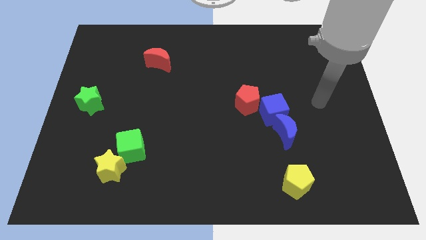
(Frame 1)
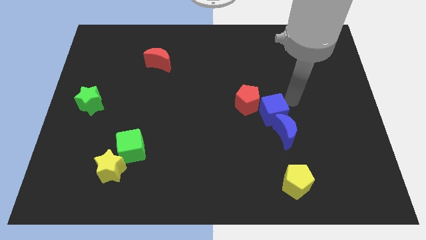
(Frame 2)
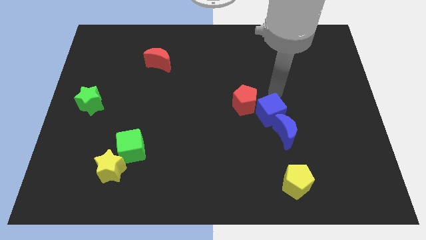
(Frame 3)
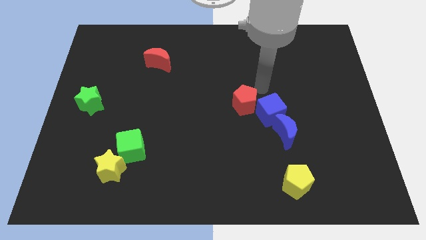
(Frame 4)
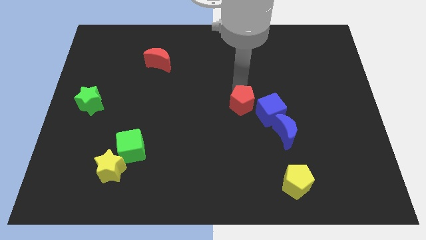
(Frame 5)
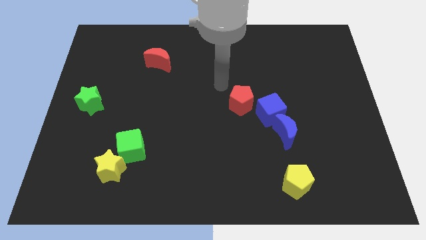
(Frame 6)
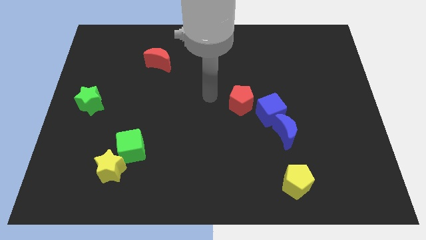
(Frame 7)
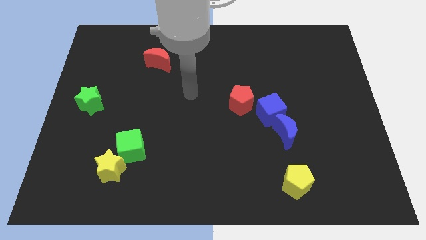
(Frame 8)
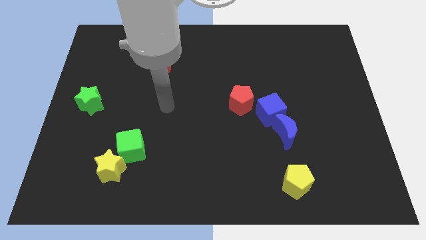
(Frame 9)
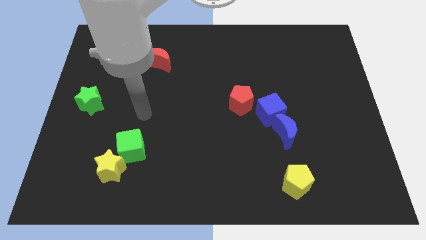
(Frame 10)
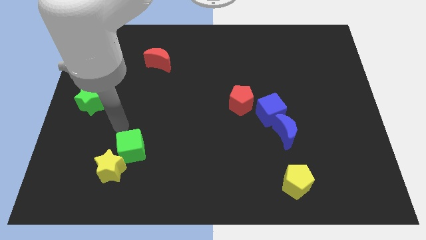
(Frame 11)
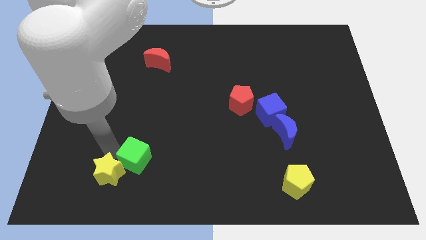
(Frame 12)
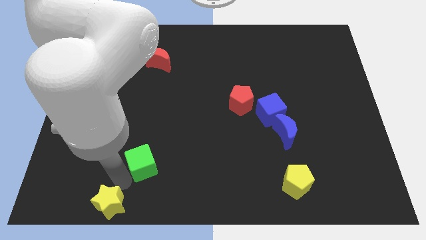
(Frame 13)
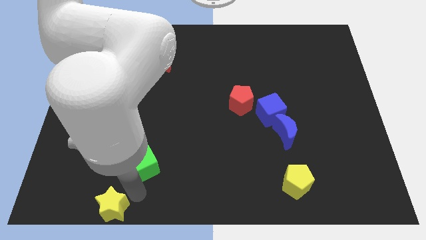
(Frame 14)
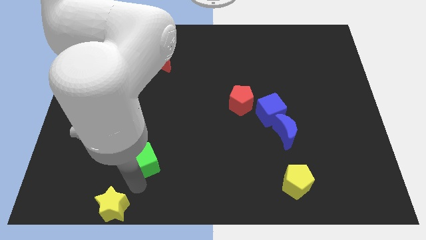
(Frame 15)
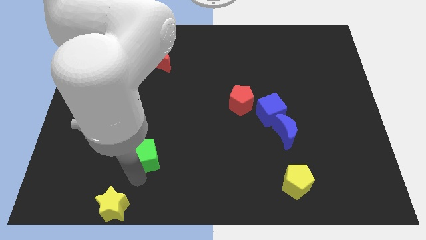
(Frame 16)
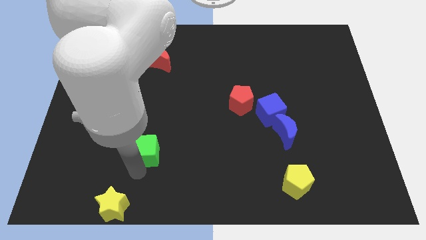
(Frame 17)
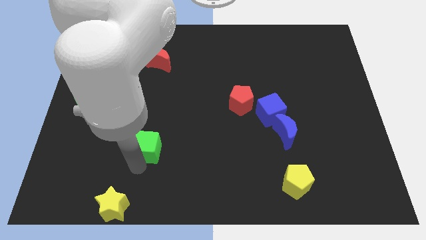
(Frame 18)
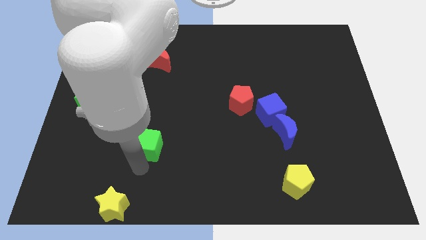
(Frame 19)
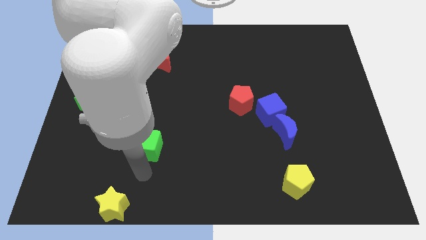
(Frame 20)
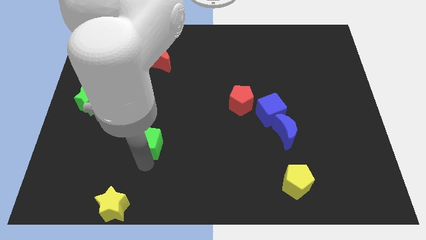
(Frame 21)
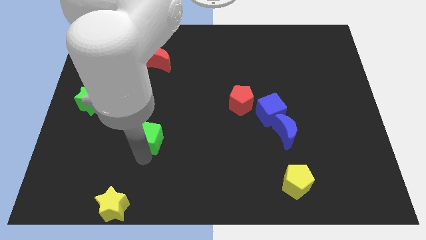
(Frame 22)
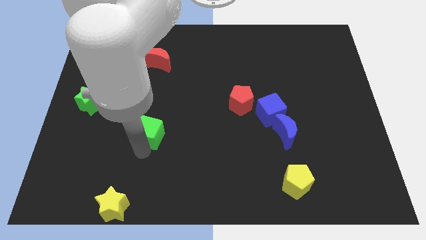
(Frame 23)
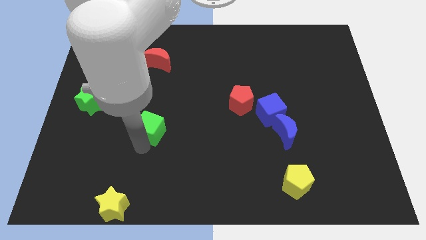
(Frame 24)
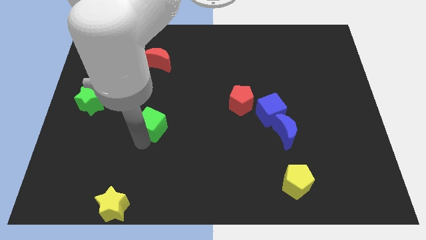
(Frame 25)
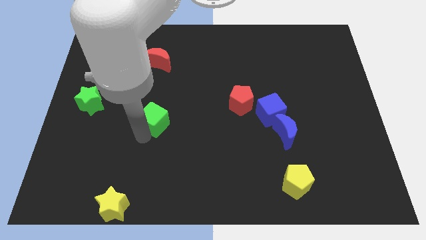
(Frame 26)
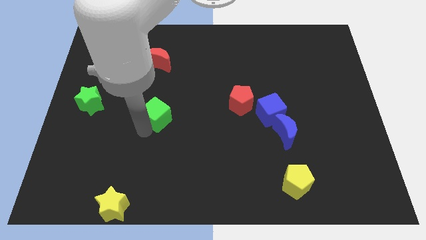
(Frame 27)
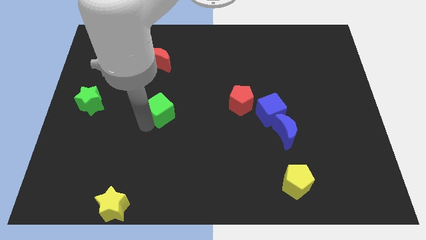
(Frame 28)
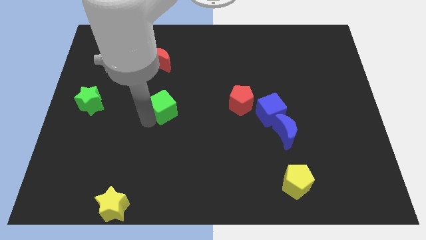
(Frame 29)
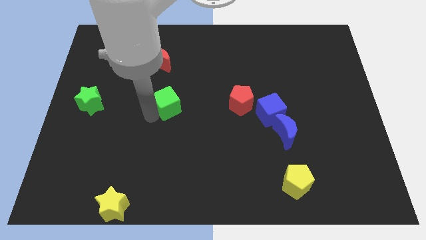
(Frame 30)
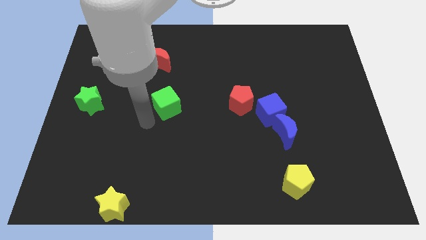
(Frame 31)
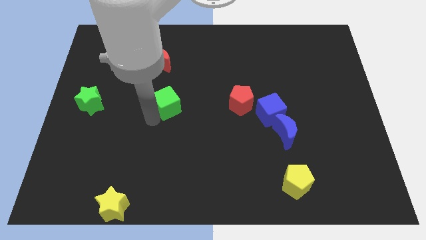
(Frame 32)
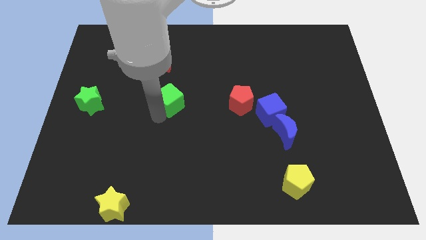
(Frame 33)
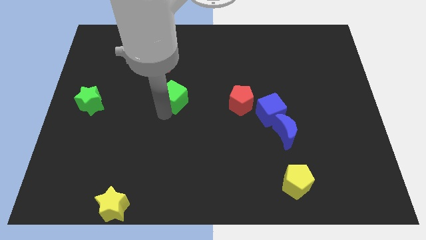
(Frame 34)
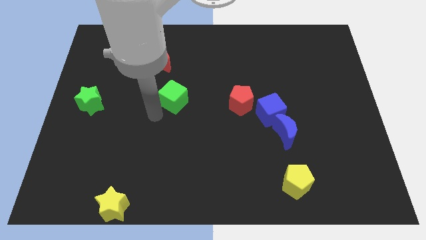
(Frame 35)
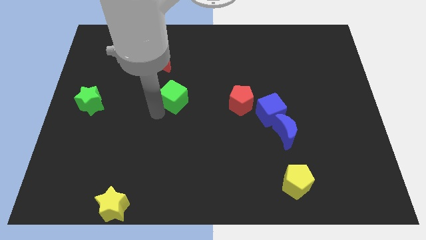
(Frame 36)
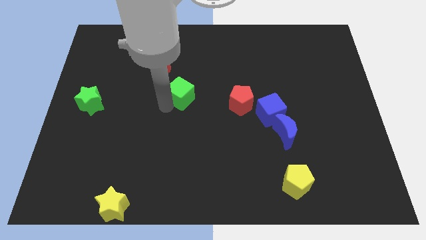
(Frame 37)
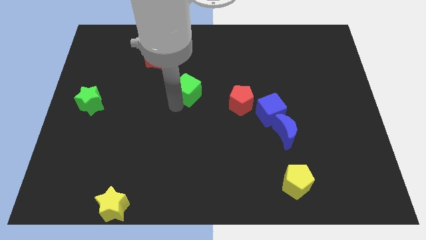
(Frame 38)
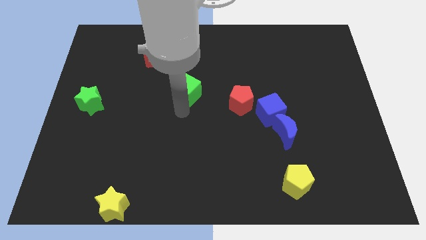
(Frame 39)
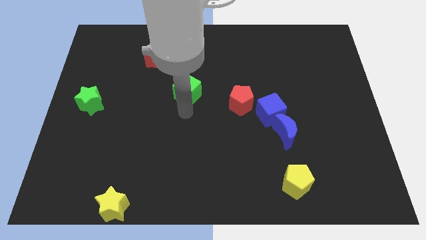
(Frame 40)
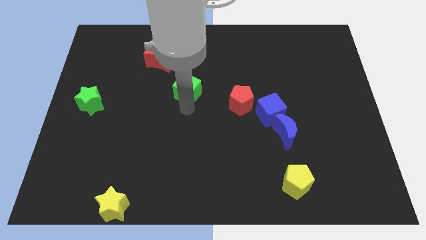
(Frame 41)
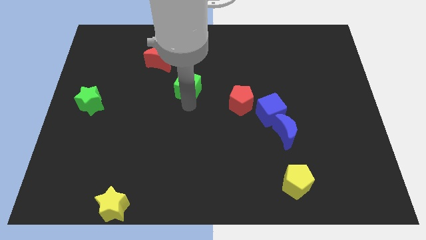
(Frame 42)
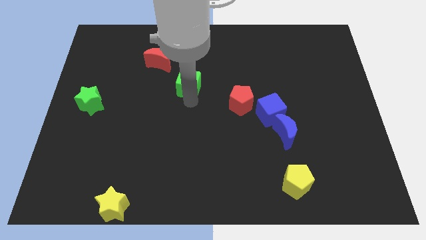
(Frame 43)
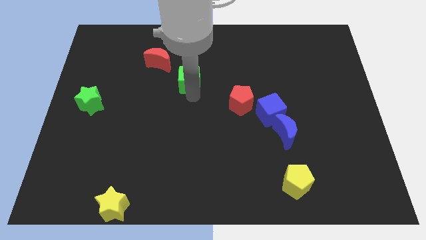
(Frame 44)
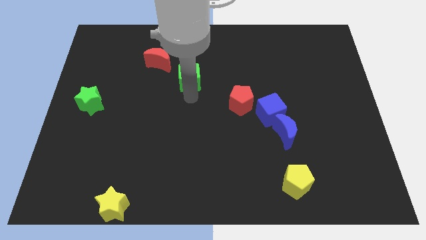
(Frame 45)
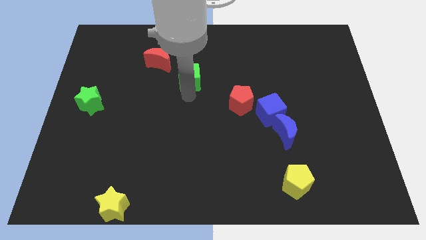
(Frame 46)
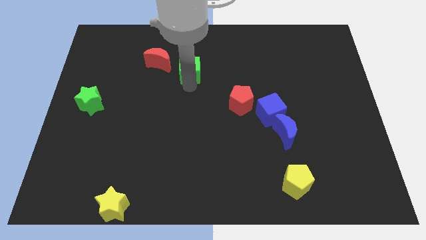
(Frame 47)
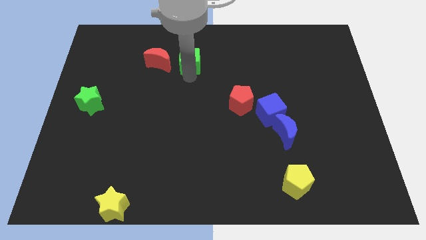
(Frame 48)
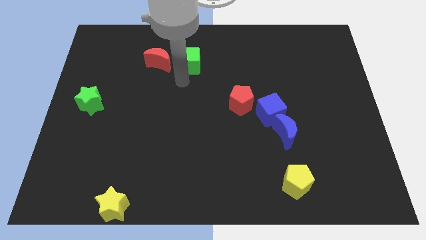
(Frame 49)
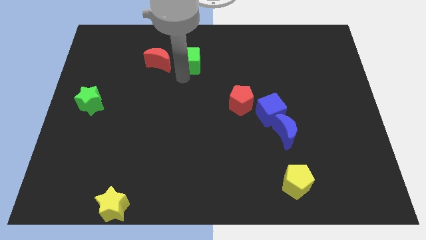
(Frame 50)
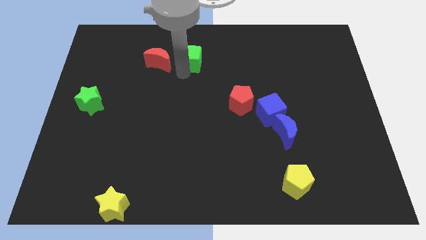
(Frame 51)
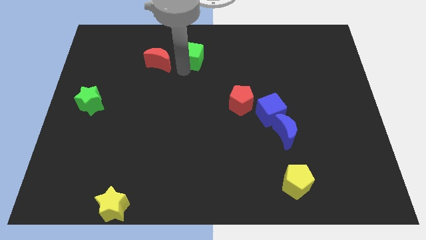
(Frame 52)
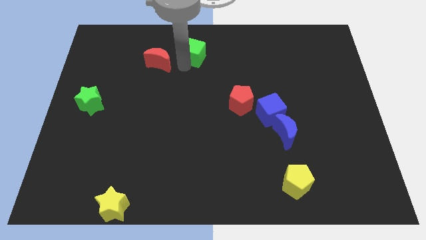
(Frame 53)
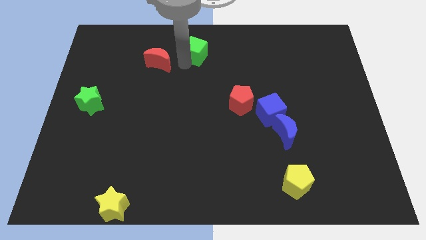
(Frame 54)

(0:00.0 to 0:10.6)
slide the green cube to the top

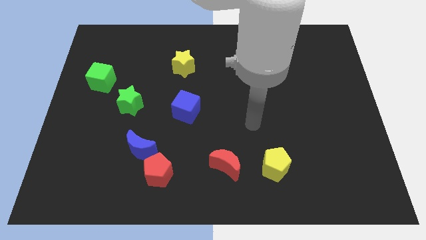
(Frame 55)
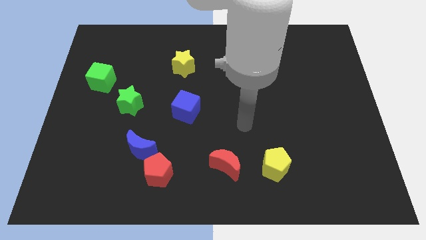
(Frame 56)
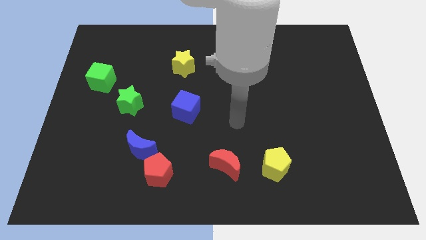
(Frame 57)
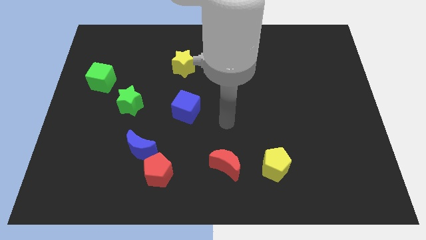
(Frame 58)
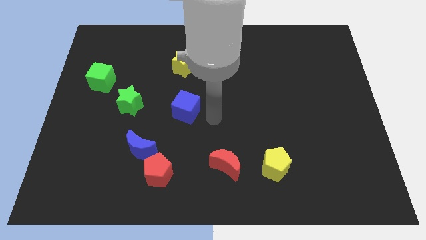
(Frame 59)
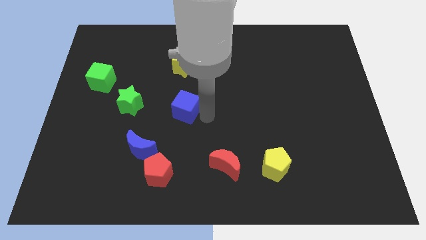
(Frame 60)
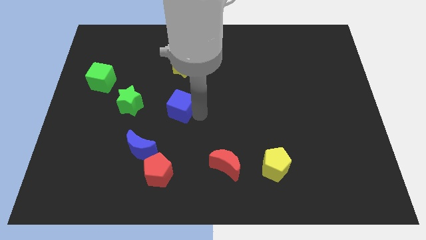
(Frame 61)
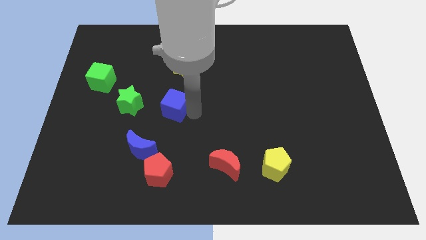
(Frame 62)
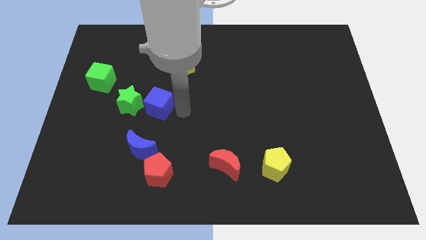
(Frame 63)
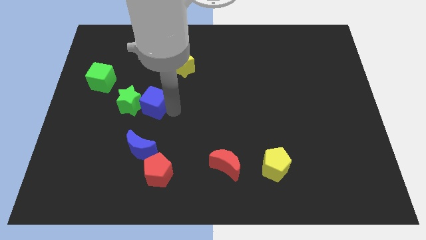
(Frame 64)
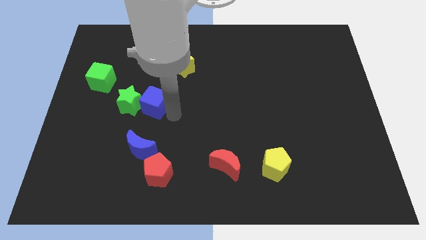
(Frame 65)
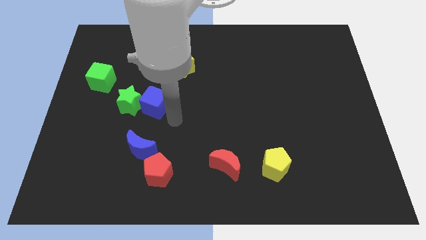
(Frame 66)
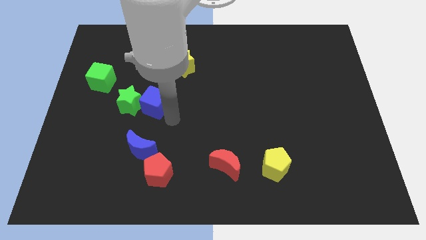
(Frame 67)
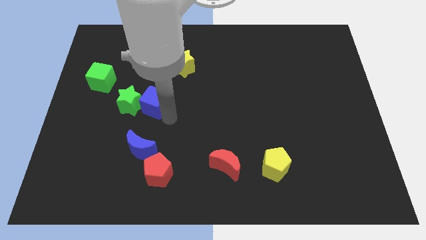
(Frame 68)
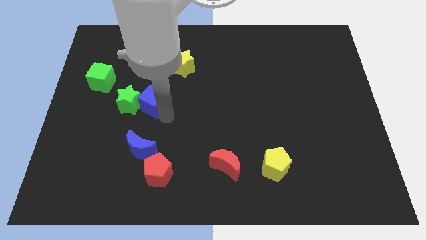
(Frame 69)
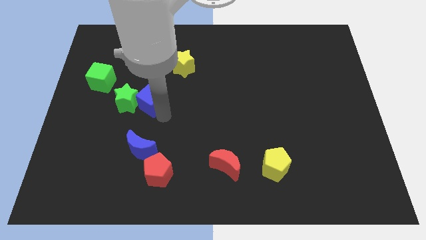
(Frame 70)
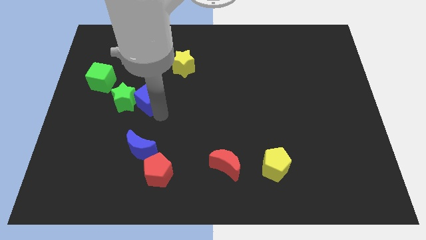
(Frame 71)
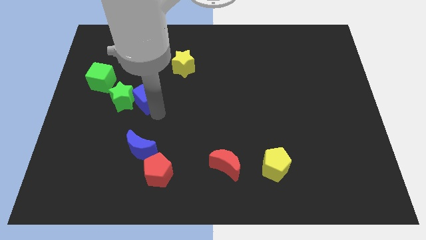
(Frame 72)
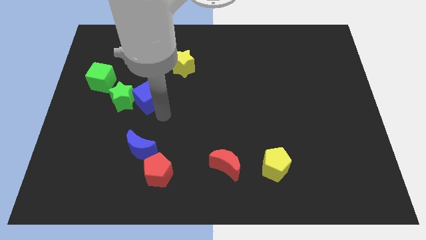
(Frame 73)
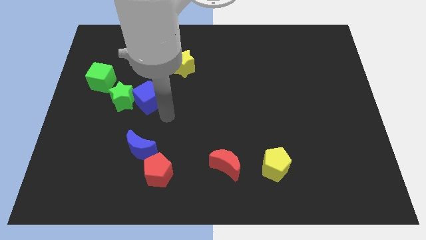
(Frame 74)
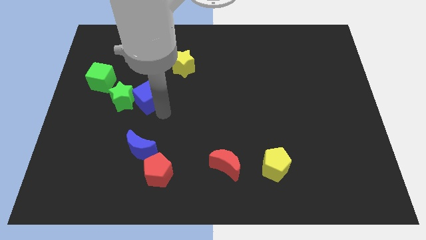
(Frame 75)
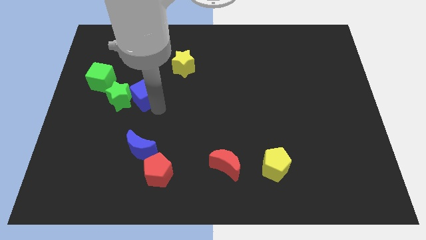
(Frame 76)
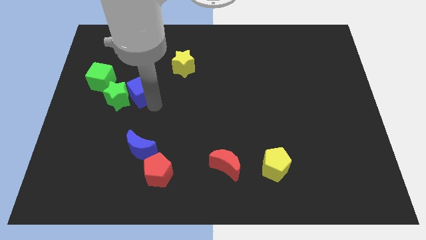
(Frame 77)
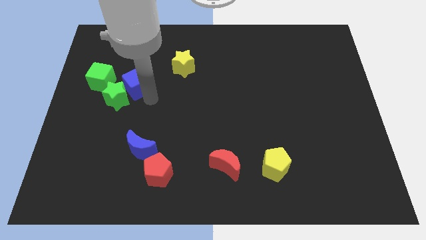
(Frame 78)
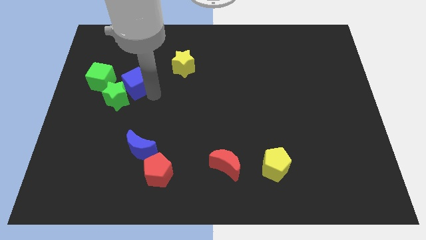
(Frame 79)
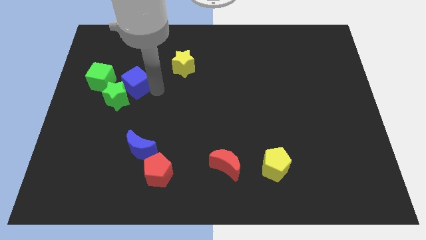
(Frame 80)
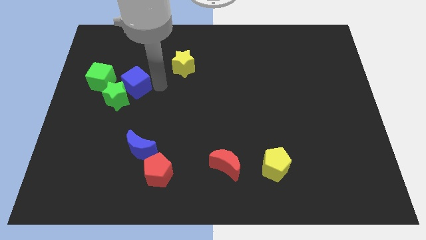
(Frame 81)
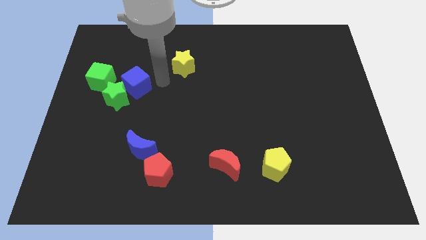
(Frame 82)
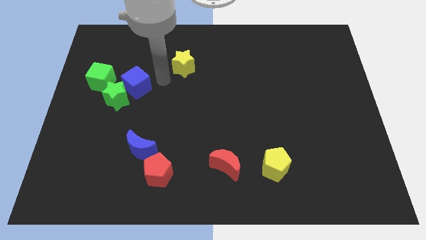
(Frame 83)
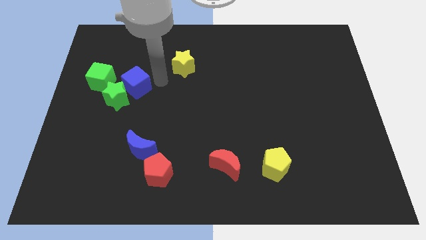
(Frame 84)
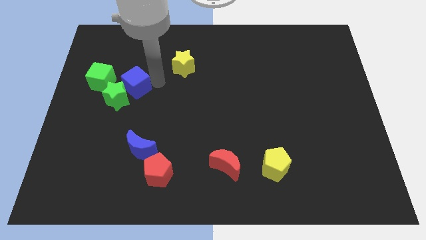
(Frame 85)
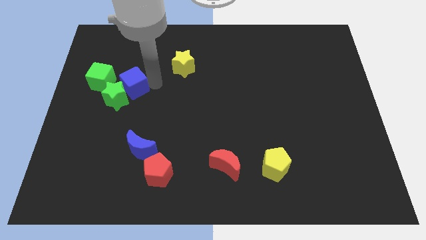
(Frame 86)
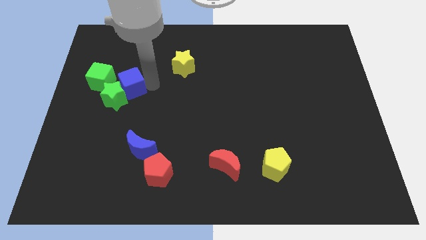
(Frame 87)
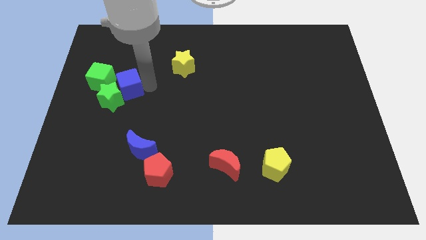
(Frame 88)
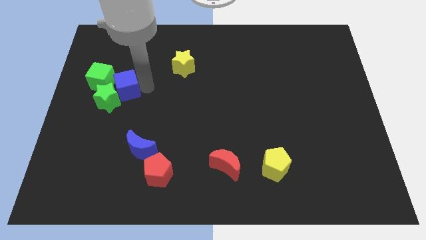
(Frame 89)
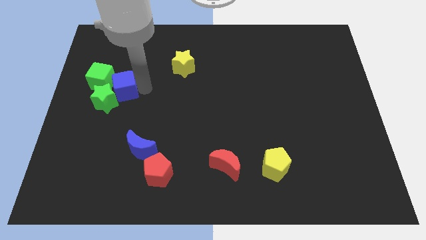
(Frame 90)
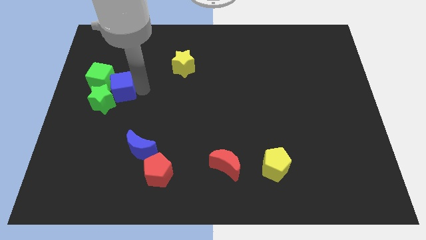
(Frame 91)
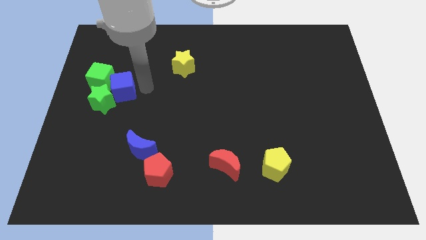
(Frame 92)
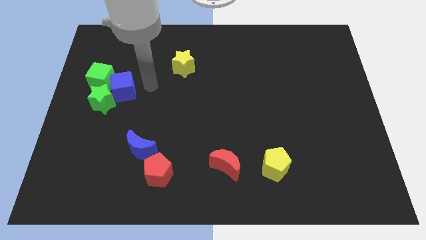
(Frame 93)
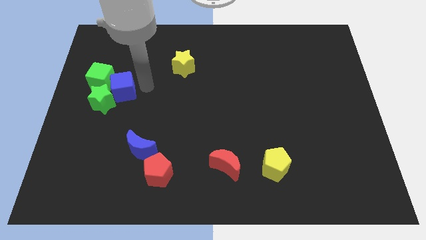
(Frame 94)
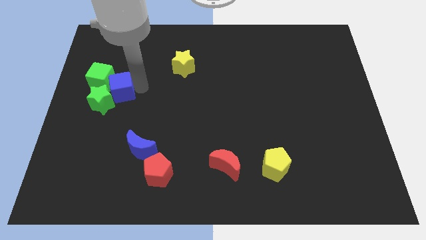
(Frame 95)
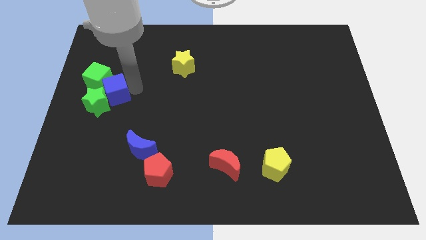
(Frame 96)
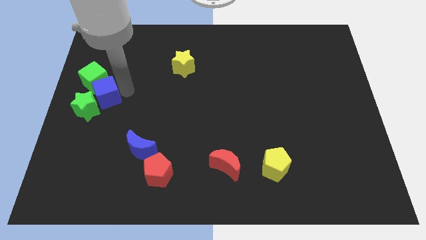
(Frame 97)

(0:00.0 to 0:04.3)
move the blue cube to the center left
